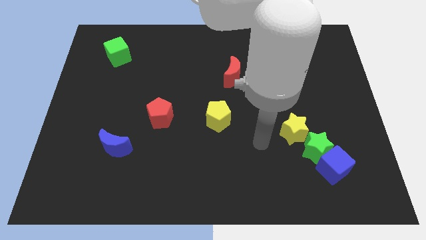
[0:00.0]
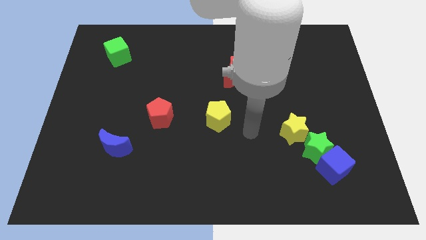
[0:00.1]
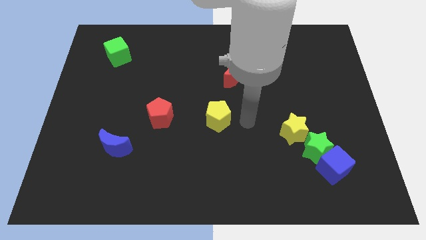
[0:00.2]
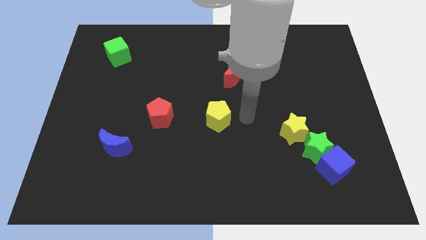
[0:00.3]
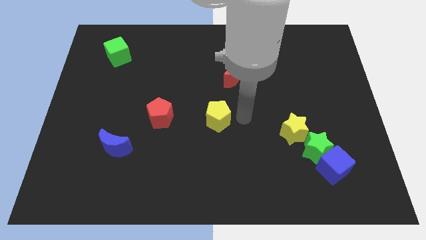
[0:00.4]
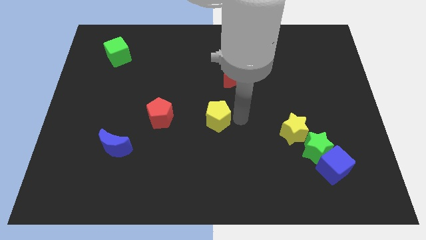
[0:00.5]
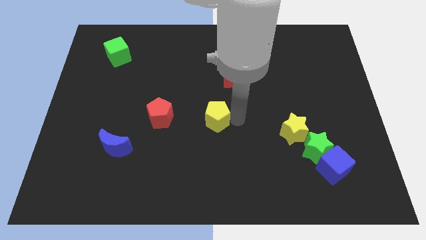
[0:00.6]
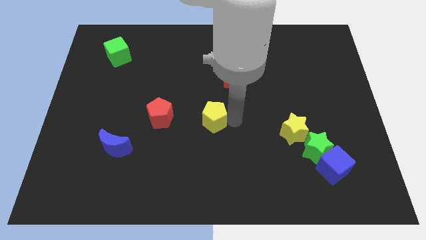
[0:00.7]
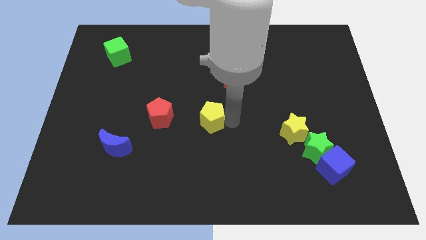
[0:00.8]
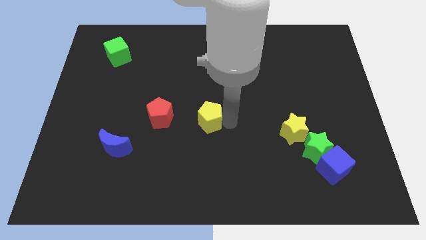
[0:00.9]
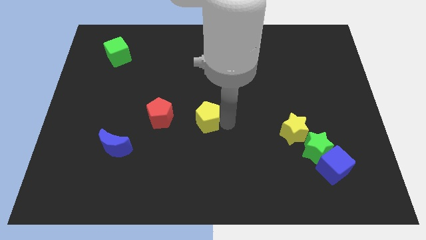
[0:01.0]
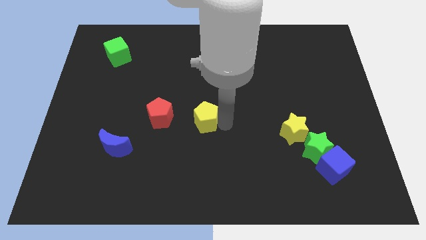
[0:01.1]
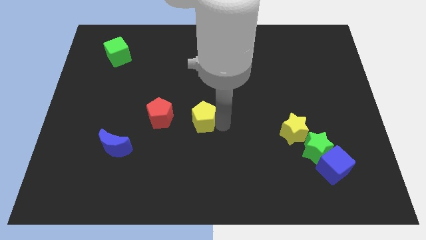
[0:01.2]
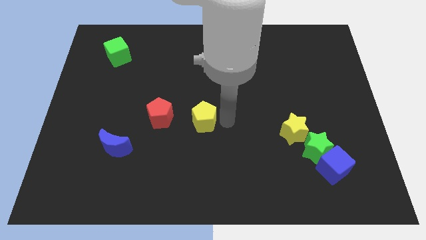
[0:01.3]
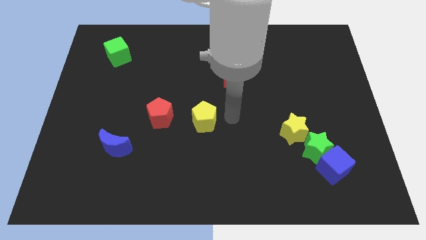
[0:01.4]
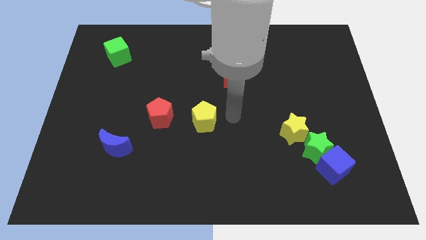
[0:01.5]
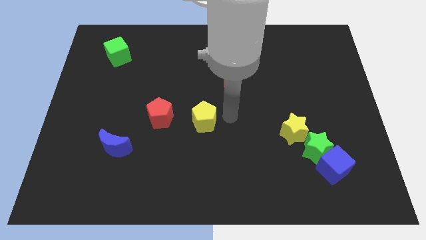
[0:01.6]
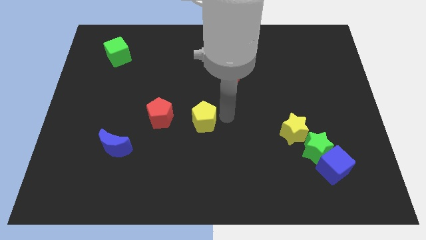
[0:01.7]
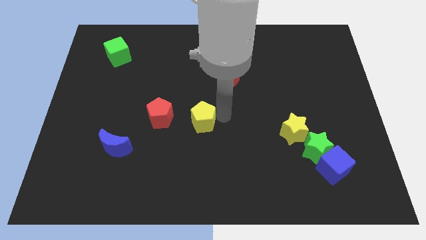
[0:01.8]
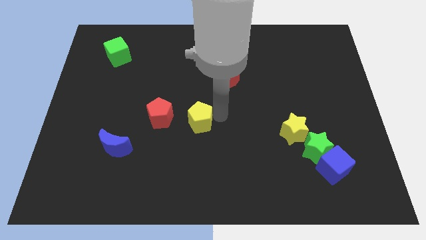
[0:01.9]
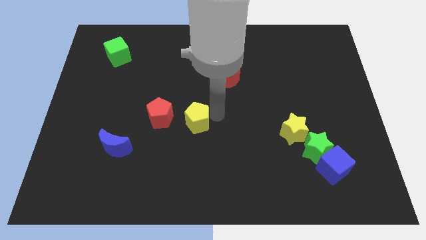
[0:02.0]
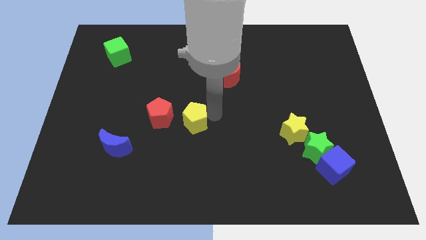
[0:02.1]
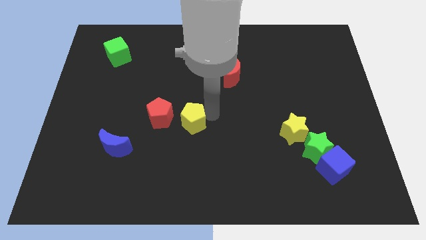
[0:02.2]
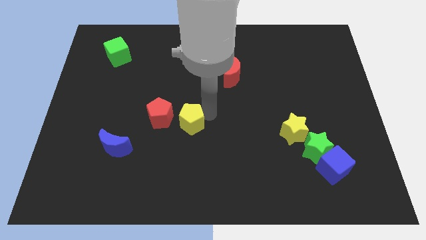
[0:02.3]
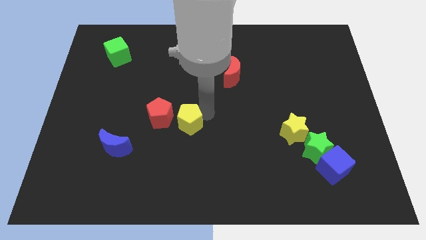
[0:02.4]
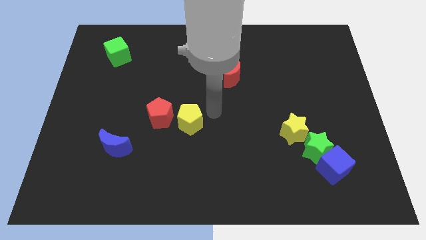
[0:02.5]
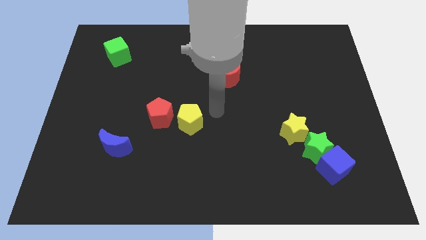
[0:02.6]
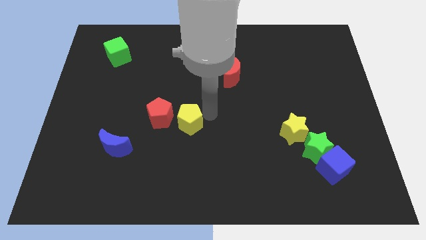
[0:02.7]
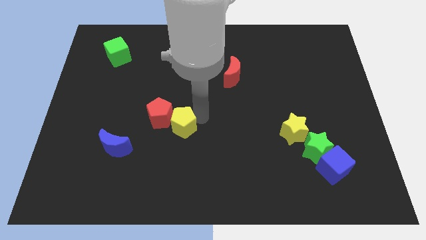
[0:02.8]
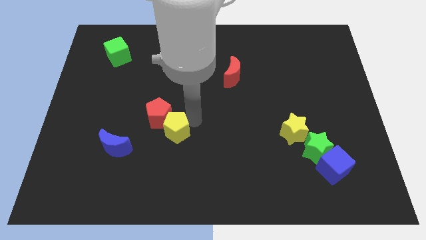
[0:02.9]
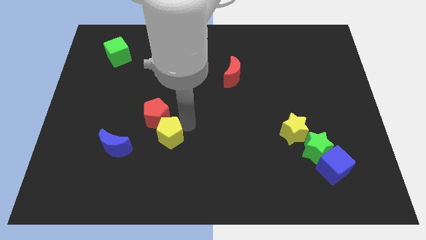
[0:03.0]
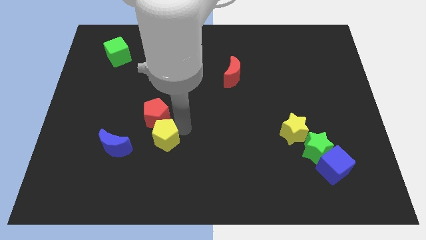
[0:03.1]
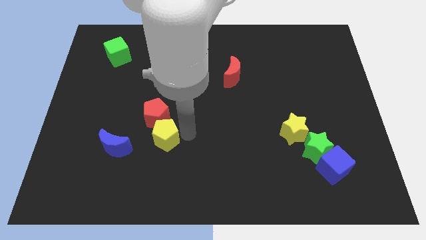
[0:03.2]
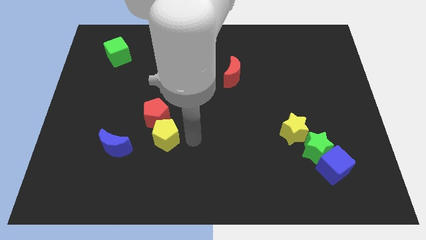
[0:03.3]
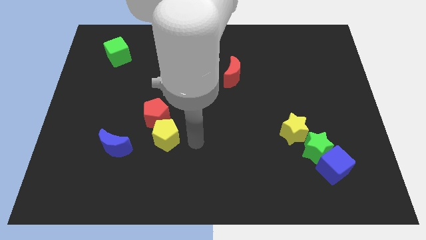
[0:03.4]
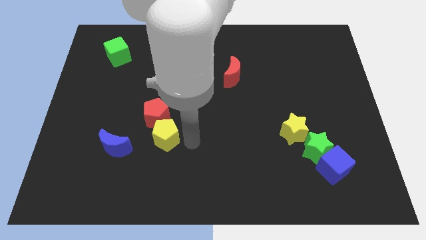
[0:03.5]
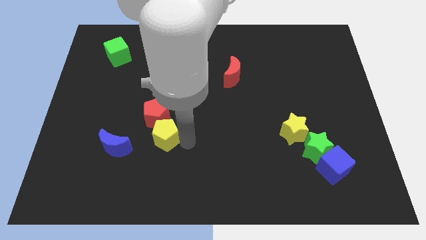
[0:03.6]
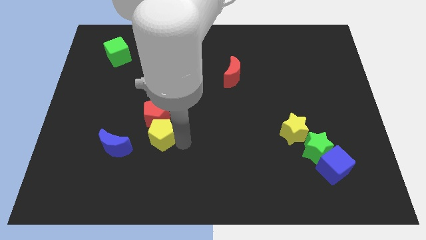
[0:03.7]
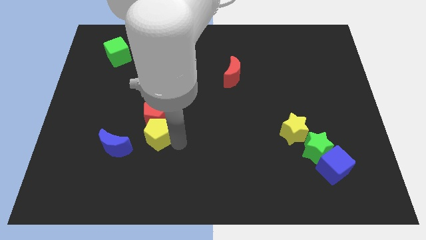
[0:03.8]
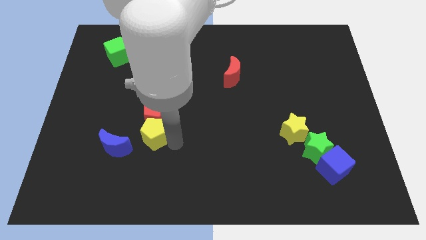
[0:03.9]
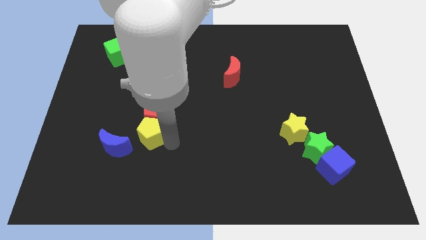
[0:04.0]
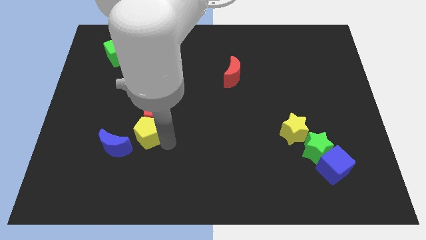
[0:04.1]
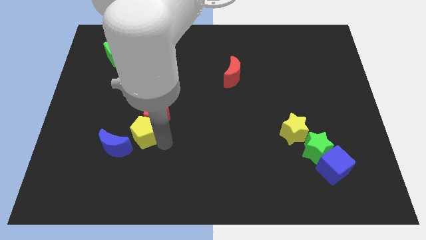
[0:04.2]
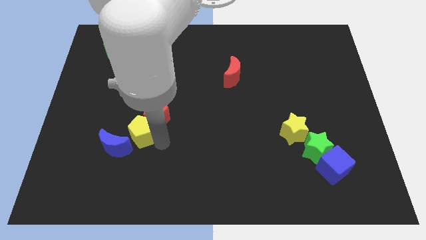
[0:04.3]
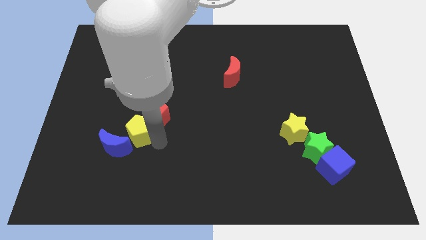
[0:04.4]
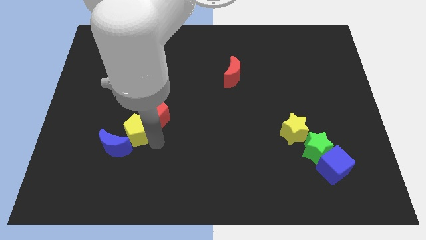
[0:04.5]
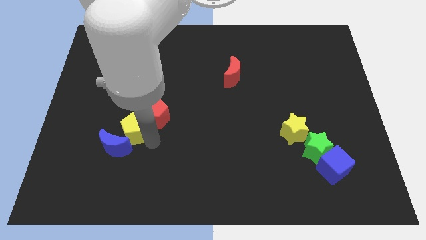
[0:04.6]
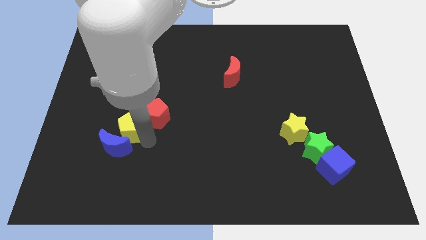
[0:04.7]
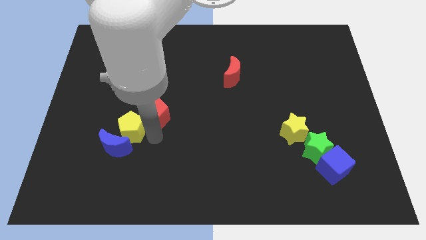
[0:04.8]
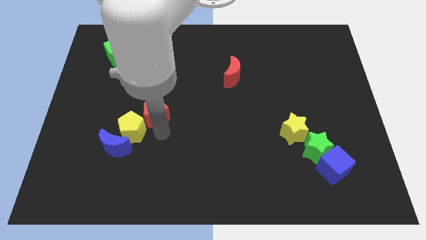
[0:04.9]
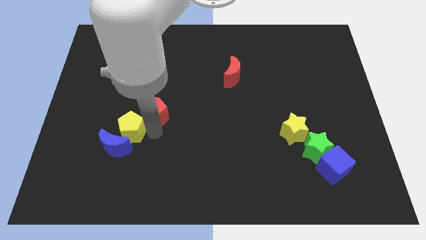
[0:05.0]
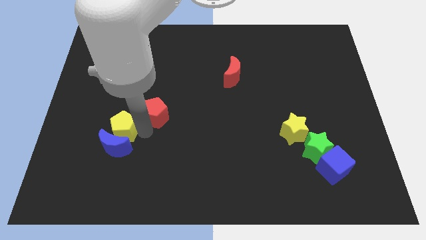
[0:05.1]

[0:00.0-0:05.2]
move the yellow pentagon diagonally up and to the left of the blue moon

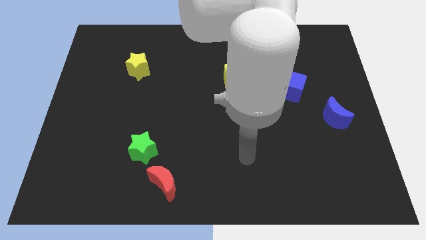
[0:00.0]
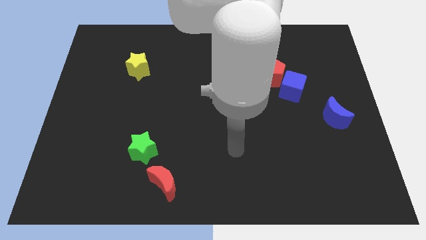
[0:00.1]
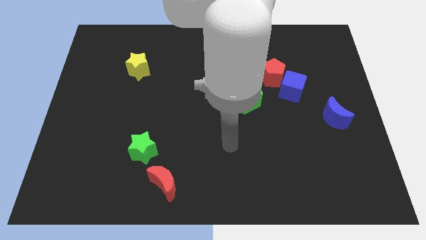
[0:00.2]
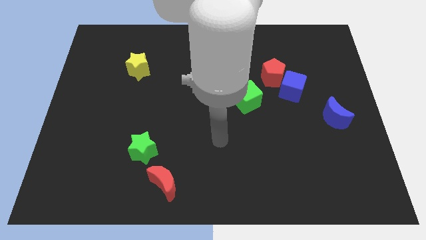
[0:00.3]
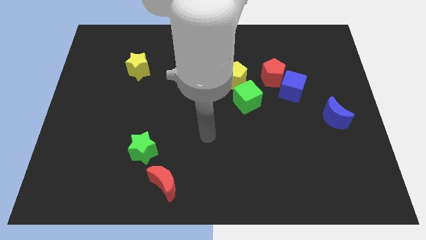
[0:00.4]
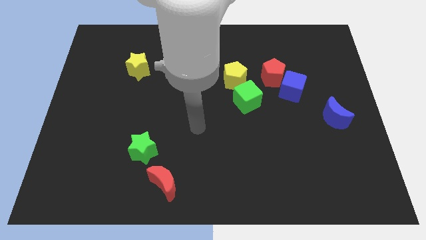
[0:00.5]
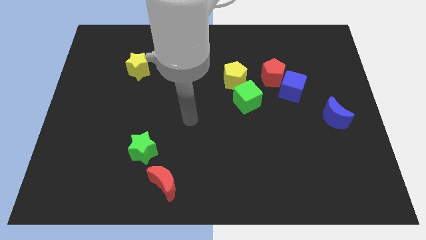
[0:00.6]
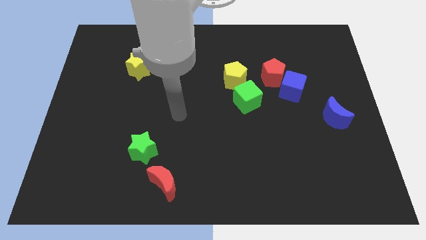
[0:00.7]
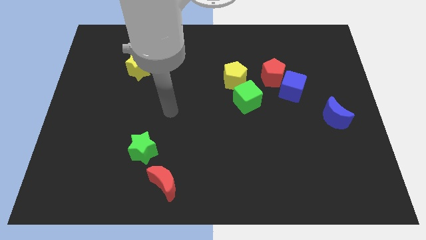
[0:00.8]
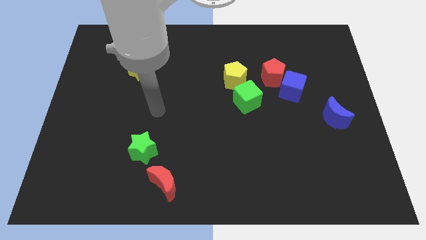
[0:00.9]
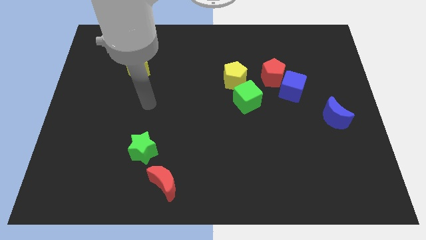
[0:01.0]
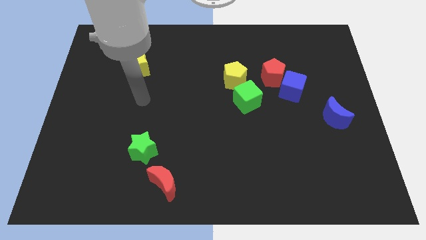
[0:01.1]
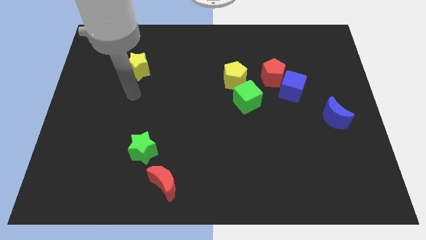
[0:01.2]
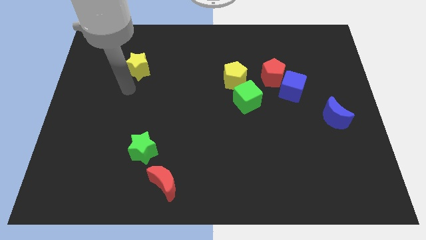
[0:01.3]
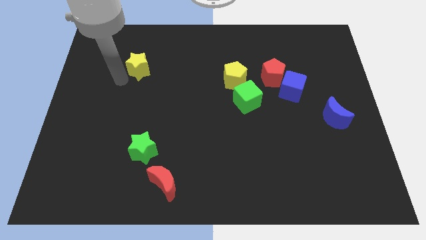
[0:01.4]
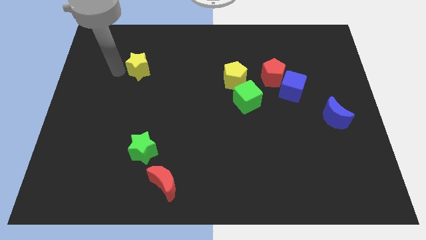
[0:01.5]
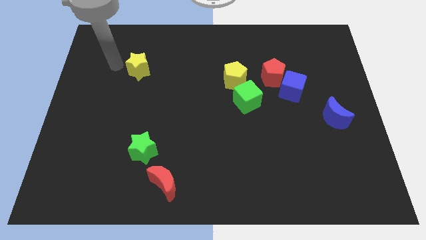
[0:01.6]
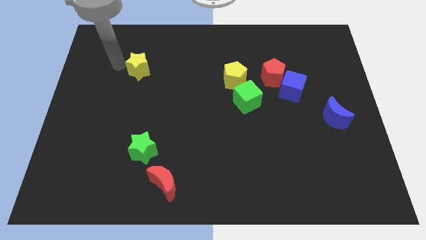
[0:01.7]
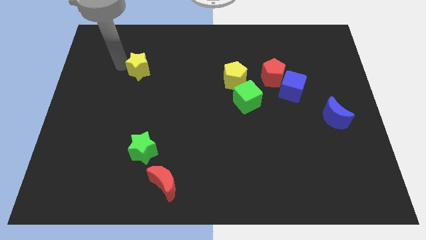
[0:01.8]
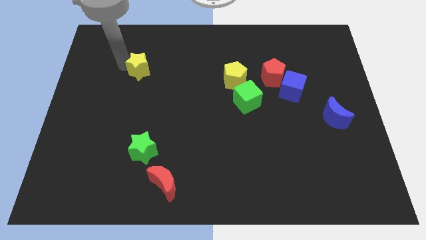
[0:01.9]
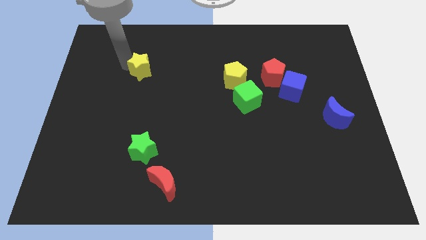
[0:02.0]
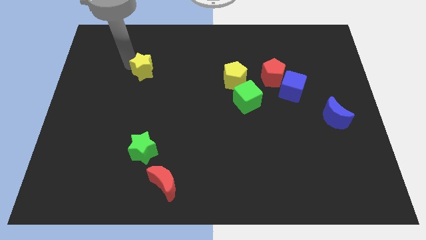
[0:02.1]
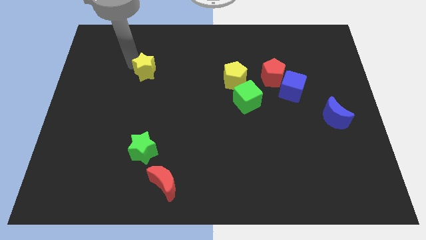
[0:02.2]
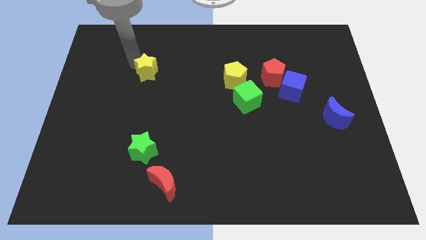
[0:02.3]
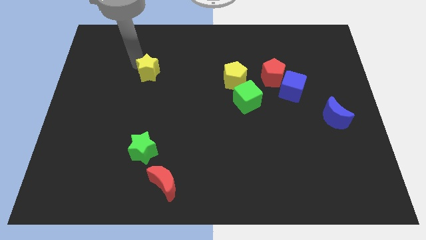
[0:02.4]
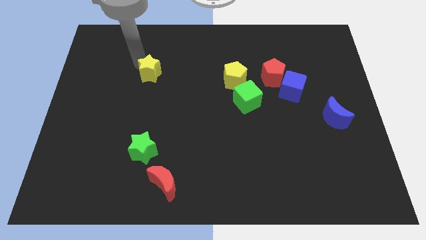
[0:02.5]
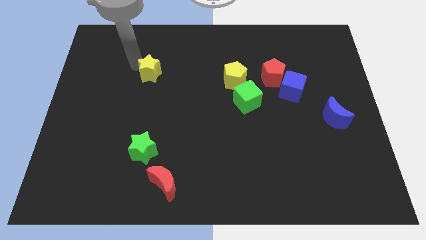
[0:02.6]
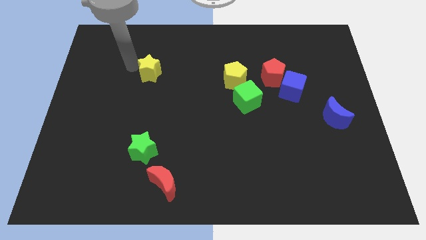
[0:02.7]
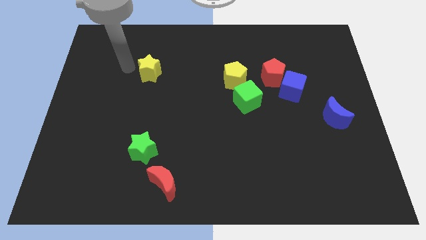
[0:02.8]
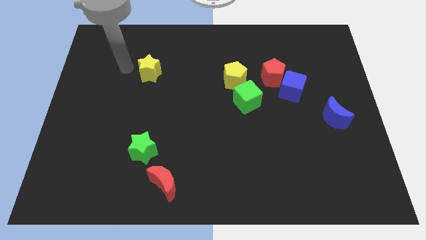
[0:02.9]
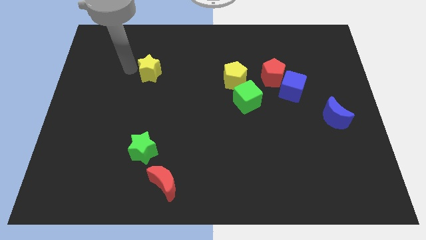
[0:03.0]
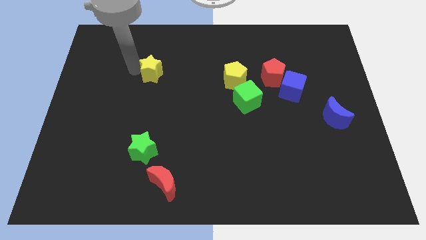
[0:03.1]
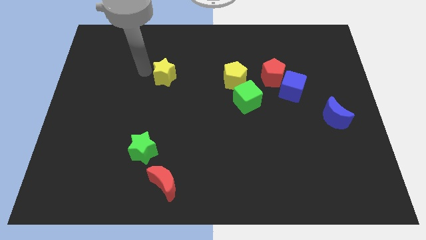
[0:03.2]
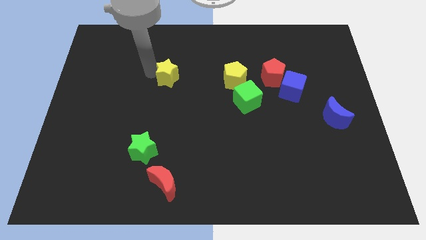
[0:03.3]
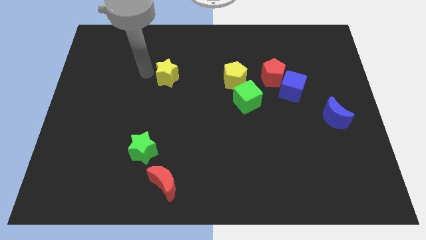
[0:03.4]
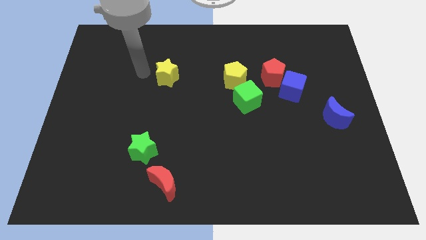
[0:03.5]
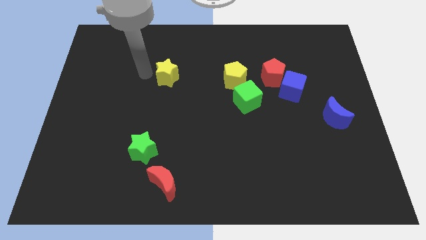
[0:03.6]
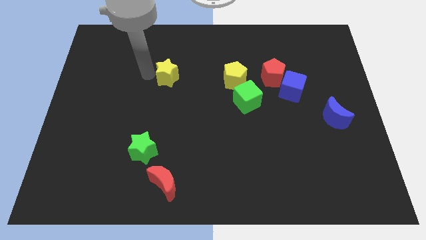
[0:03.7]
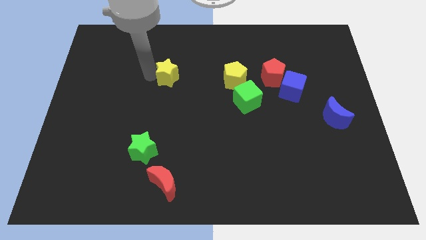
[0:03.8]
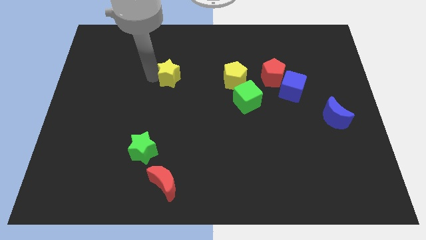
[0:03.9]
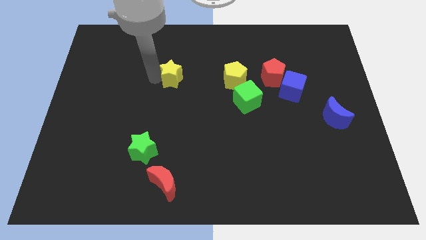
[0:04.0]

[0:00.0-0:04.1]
move the yellow star to the left side of the yellow pentagon
